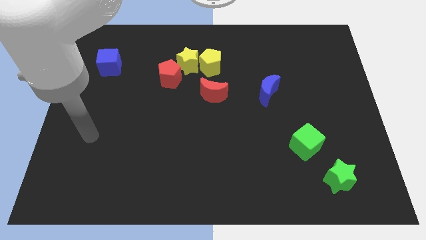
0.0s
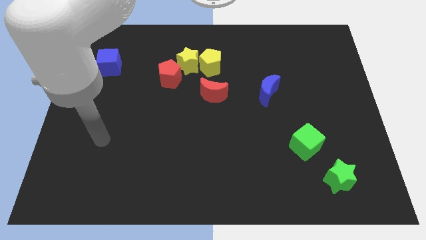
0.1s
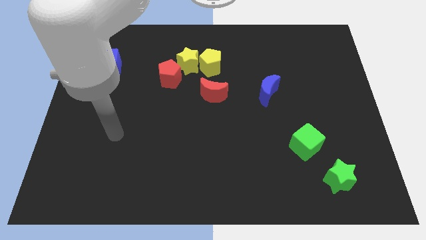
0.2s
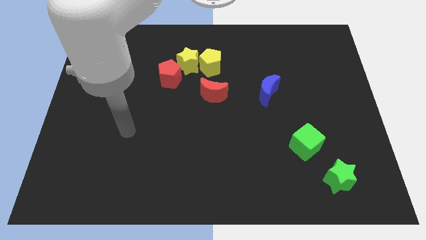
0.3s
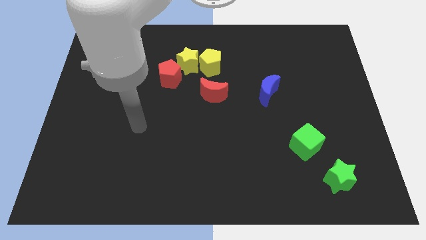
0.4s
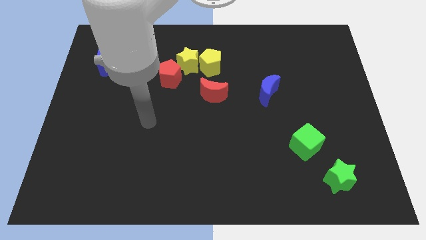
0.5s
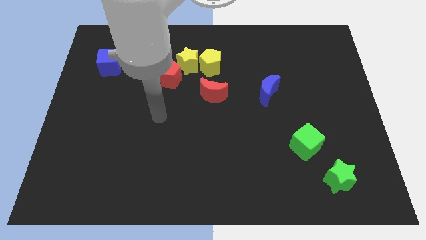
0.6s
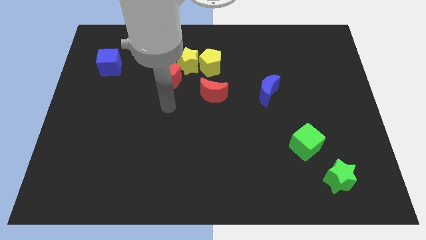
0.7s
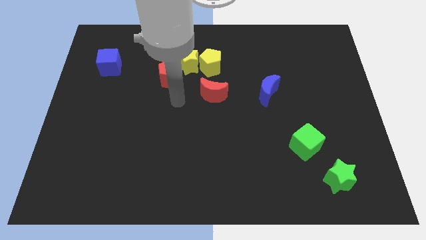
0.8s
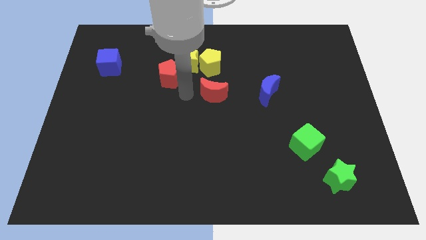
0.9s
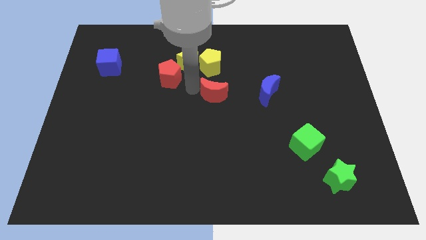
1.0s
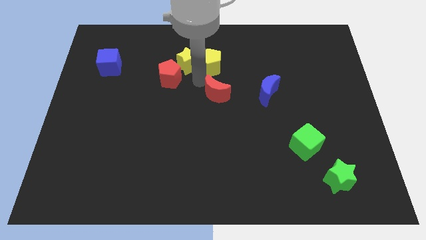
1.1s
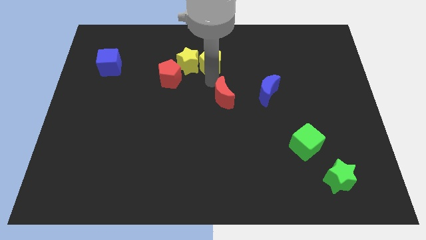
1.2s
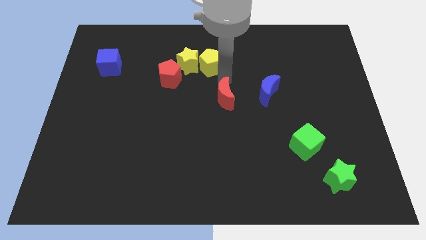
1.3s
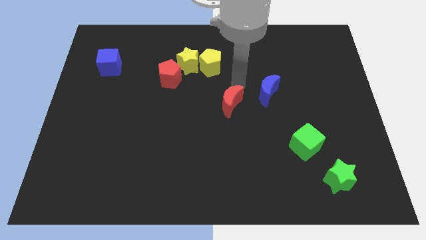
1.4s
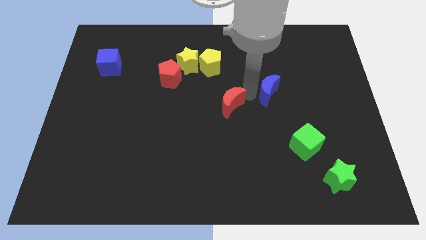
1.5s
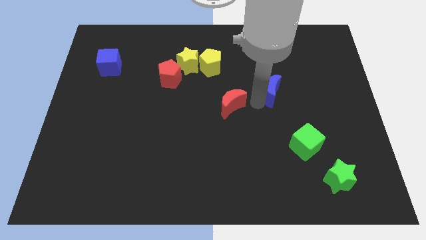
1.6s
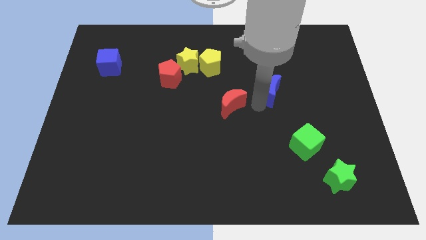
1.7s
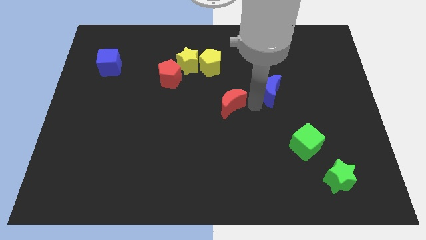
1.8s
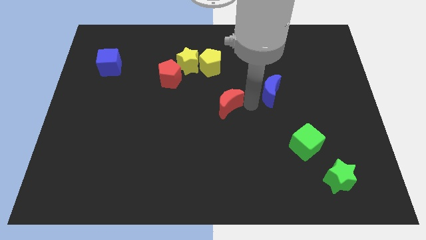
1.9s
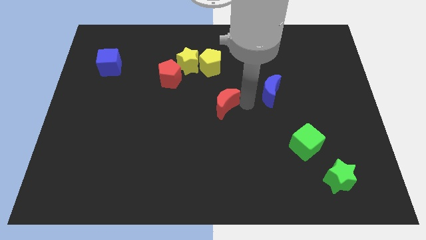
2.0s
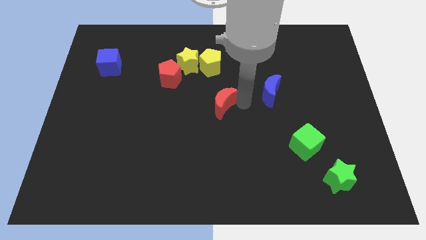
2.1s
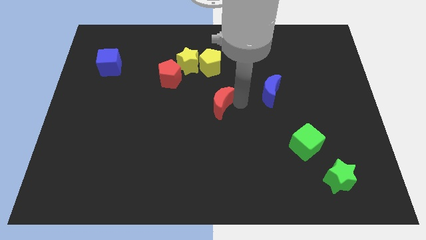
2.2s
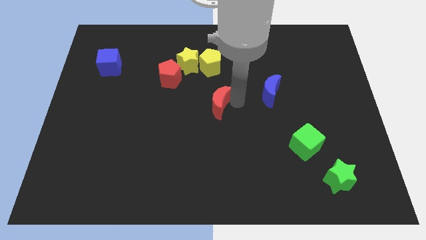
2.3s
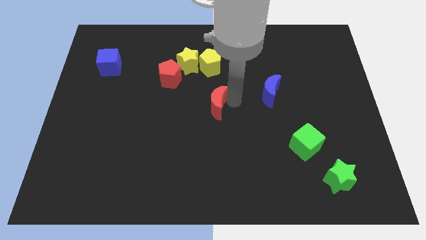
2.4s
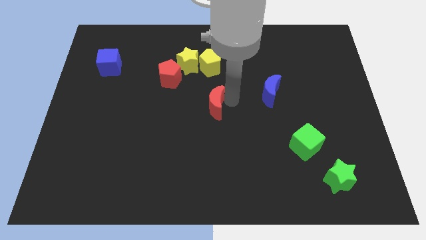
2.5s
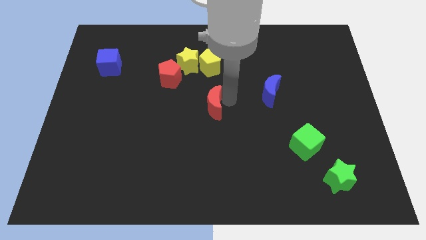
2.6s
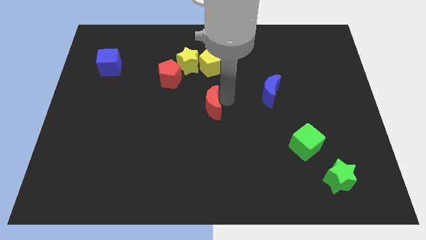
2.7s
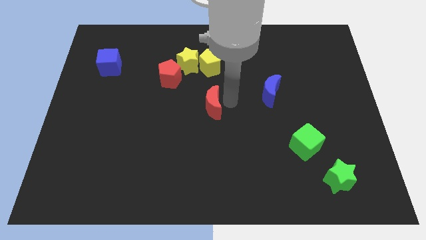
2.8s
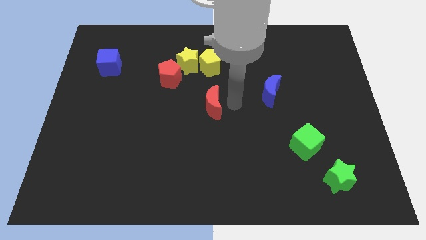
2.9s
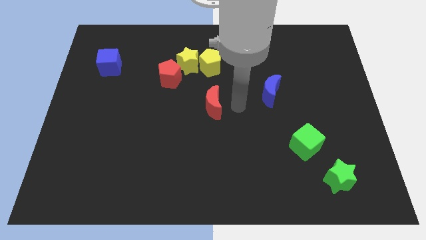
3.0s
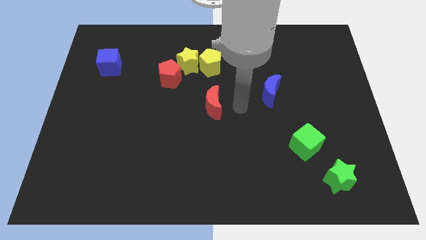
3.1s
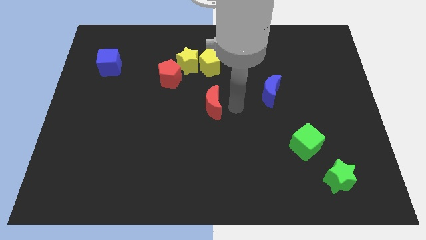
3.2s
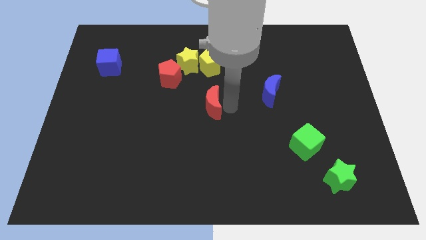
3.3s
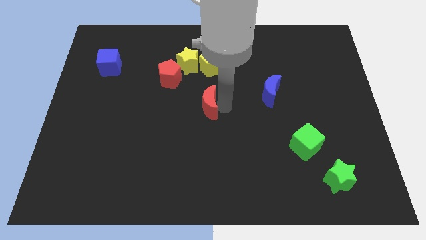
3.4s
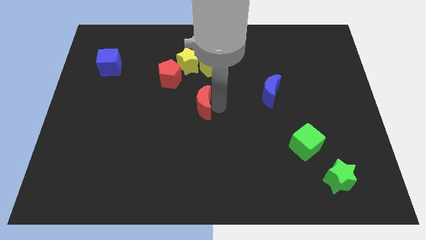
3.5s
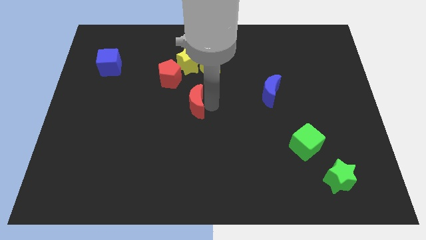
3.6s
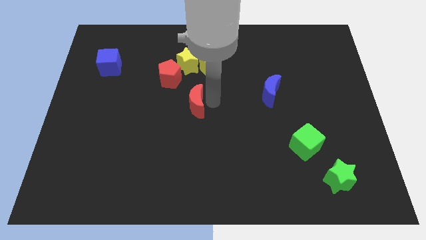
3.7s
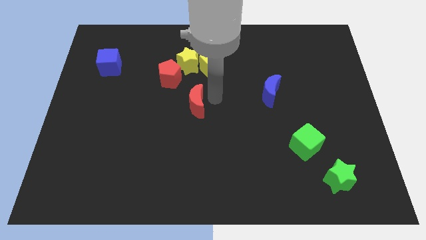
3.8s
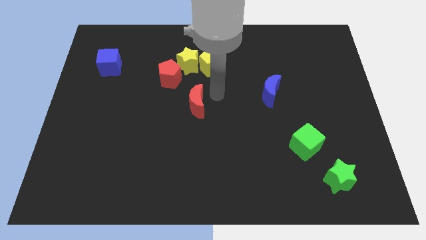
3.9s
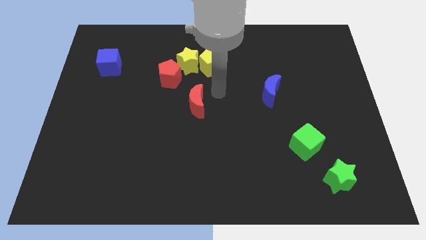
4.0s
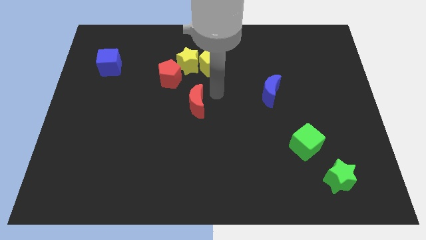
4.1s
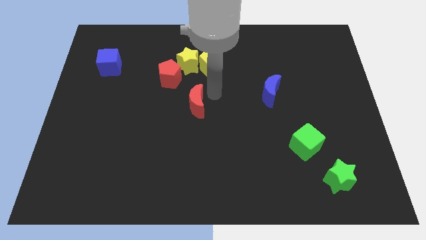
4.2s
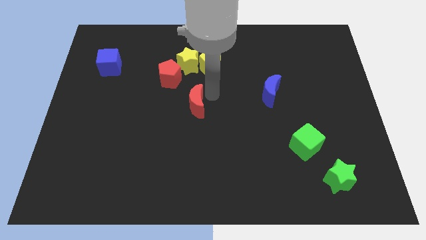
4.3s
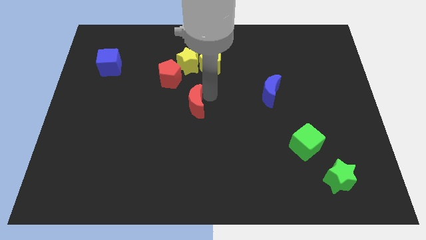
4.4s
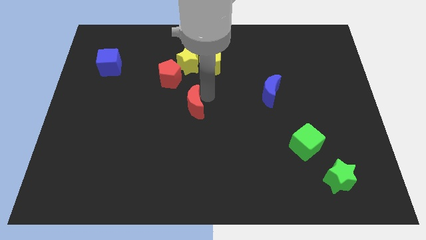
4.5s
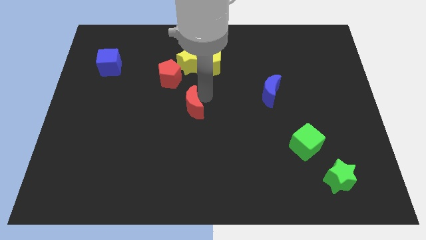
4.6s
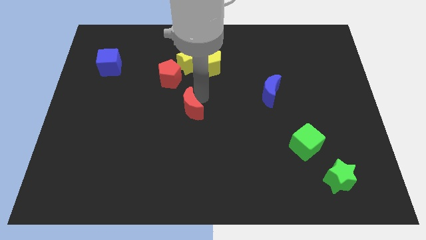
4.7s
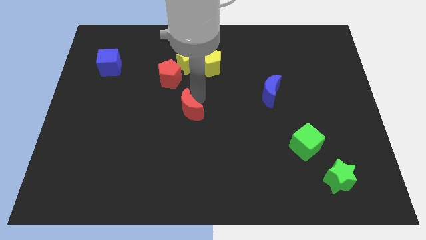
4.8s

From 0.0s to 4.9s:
slide the red moon diagonally down and to the left a little bit

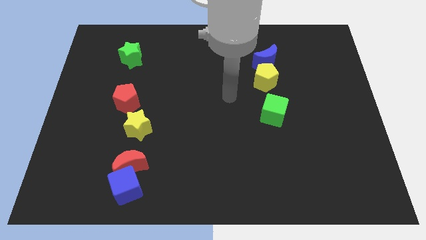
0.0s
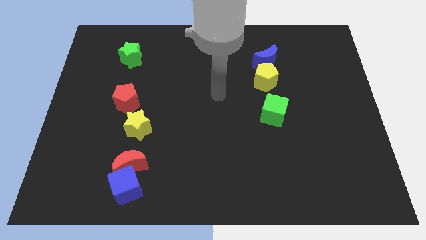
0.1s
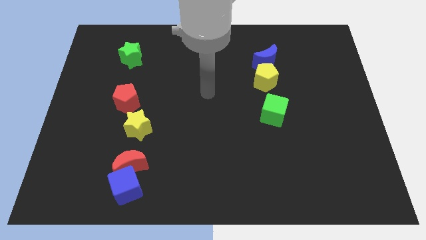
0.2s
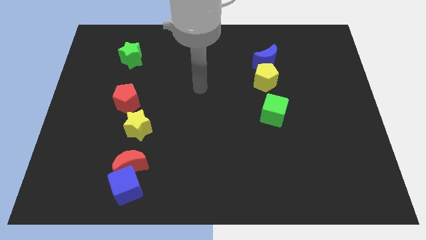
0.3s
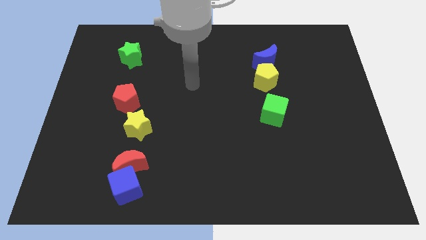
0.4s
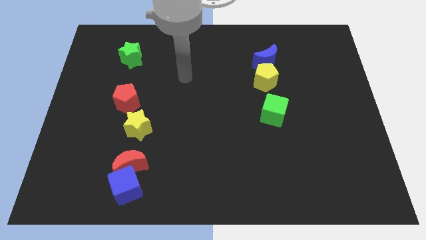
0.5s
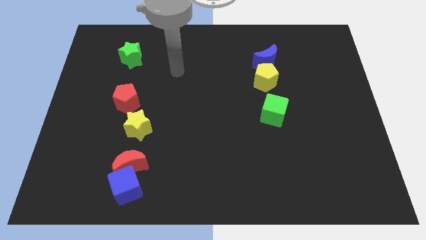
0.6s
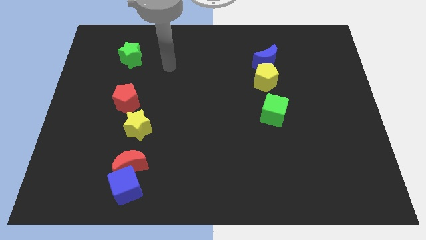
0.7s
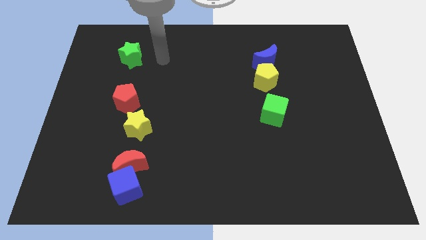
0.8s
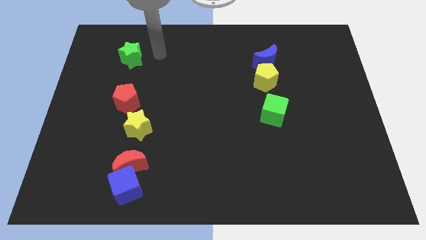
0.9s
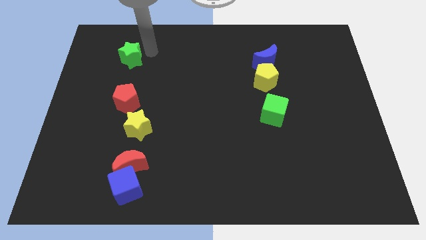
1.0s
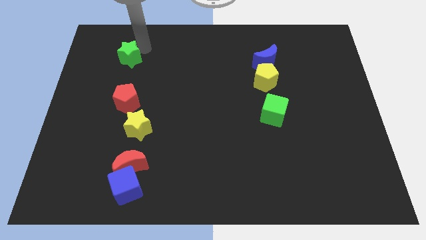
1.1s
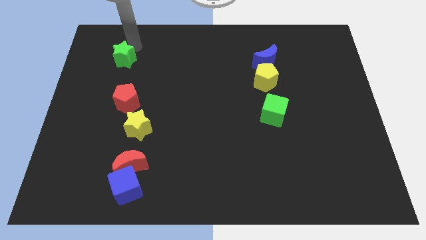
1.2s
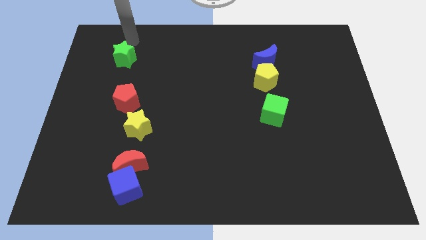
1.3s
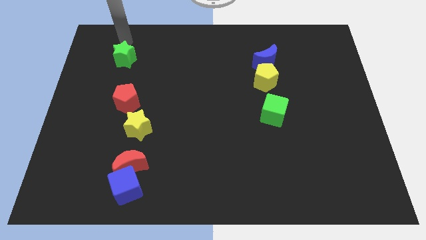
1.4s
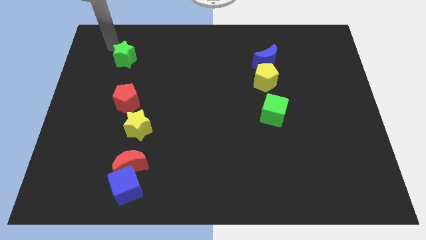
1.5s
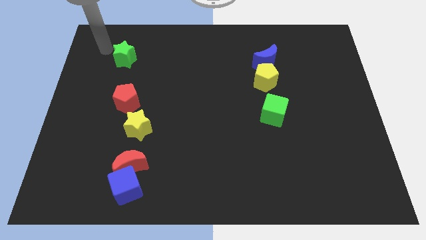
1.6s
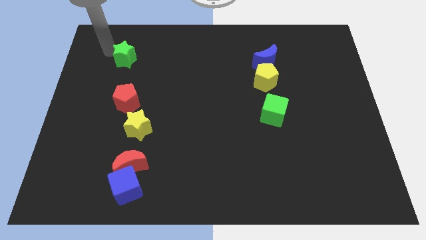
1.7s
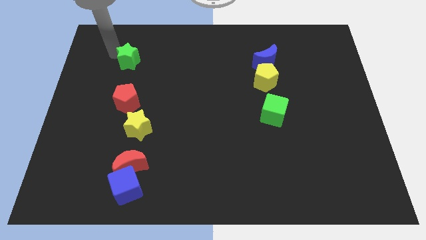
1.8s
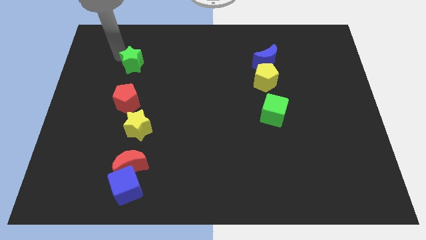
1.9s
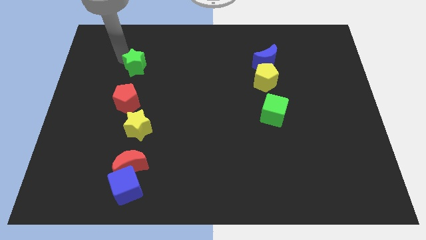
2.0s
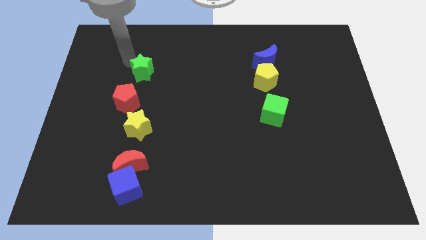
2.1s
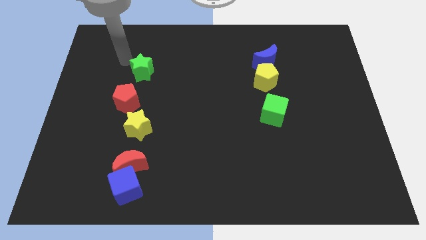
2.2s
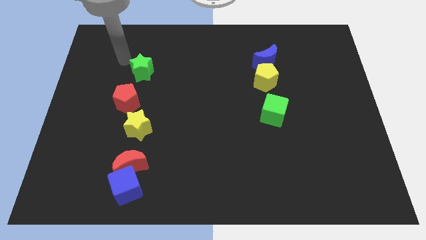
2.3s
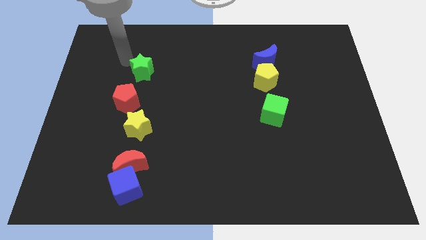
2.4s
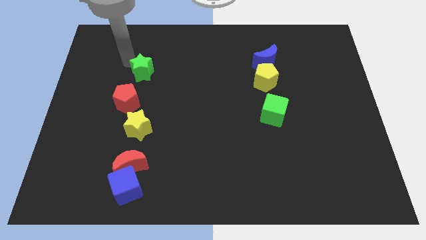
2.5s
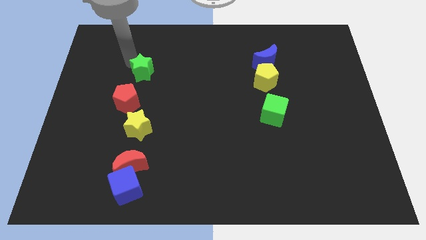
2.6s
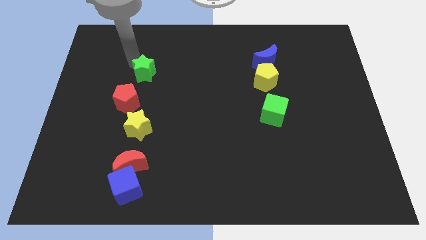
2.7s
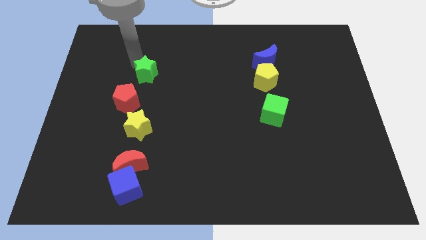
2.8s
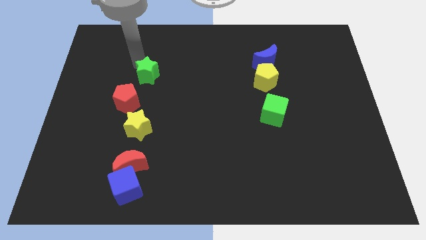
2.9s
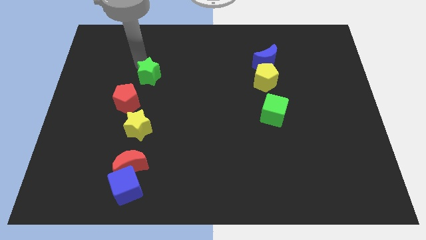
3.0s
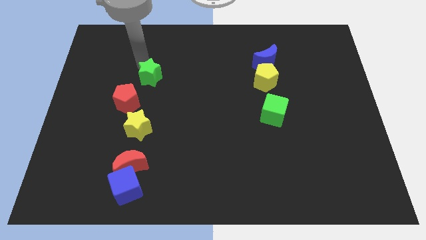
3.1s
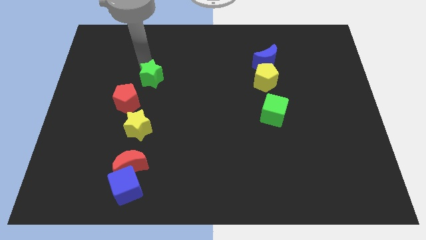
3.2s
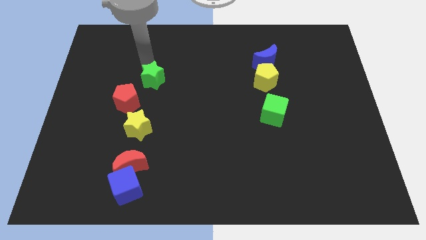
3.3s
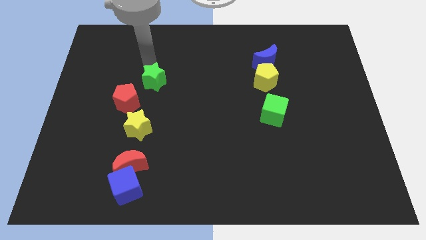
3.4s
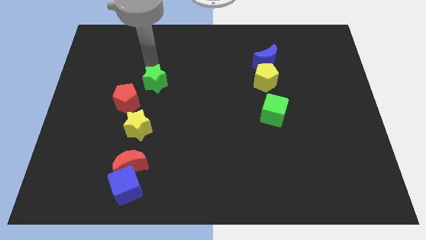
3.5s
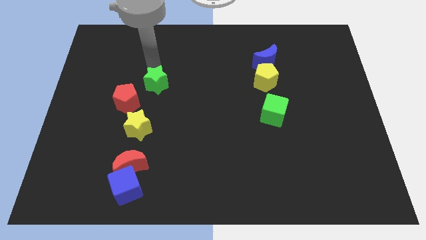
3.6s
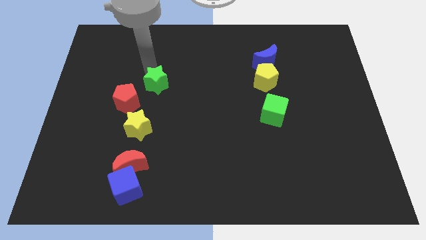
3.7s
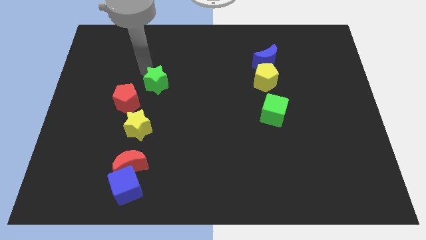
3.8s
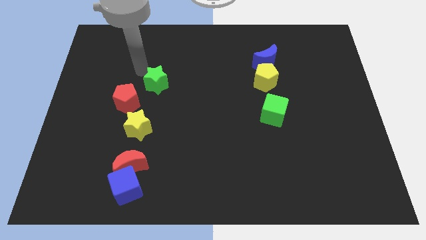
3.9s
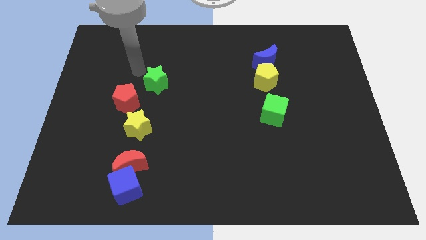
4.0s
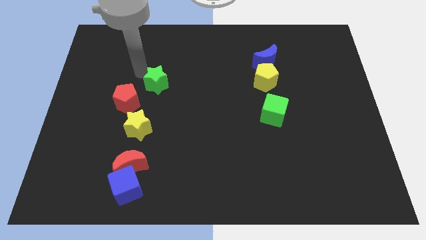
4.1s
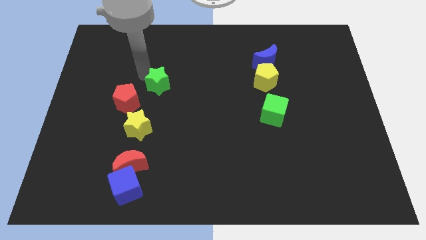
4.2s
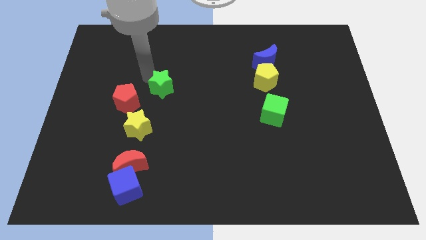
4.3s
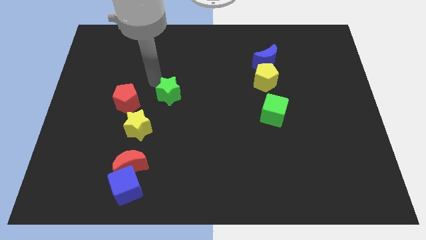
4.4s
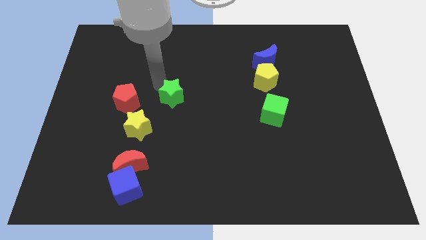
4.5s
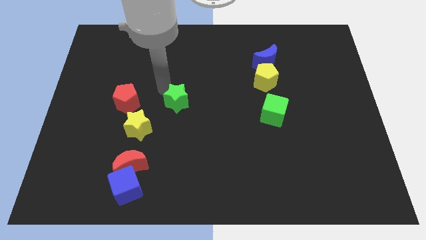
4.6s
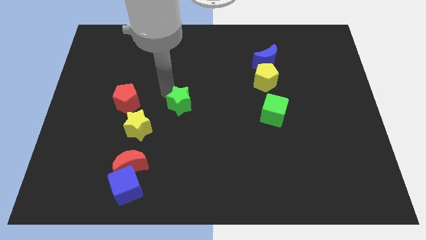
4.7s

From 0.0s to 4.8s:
slide the green star diagonally downwards and right
